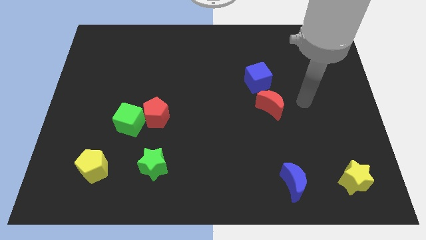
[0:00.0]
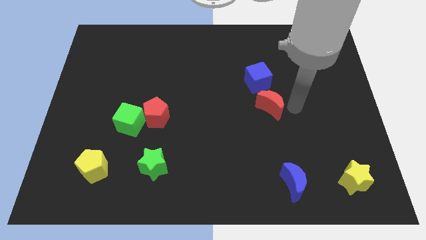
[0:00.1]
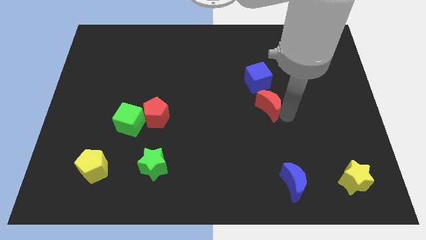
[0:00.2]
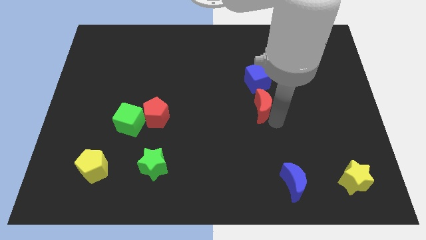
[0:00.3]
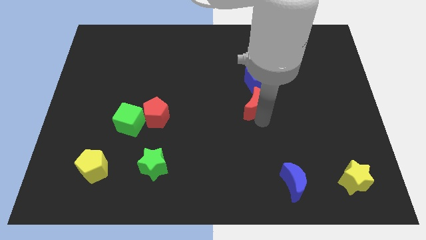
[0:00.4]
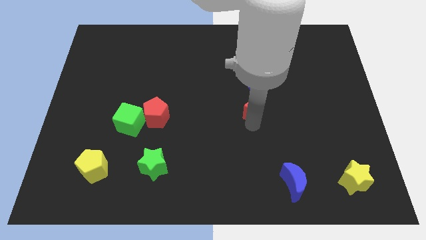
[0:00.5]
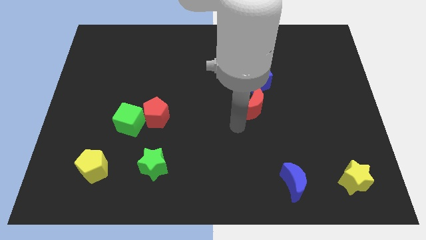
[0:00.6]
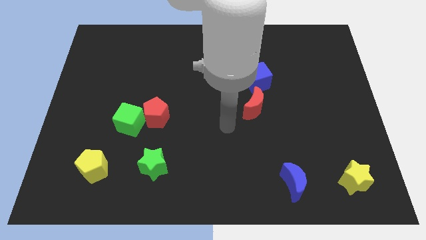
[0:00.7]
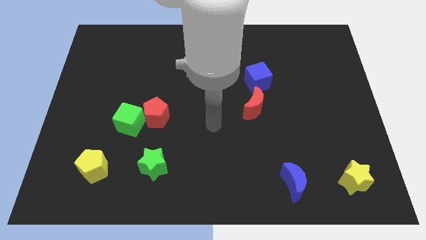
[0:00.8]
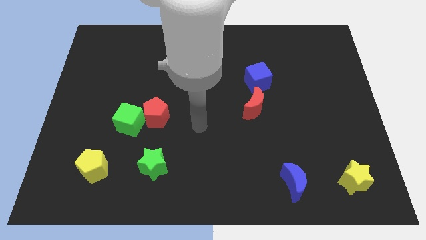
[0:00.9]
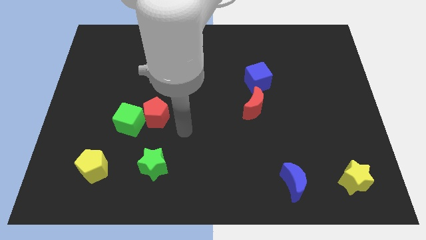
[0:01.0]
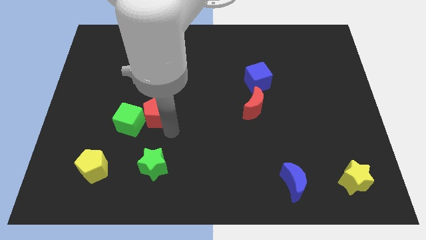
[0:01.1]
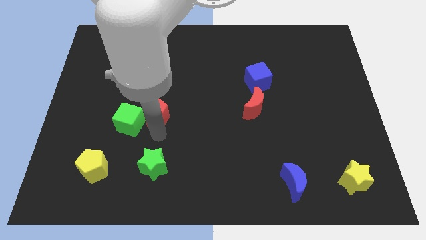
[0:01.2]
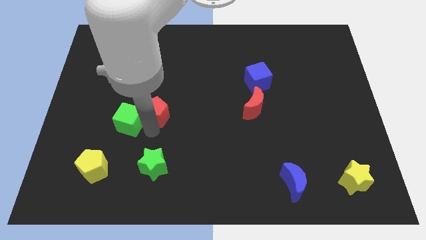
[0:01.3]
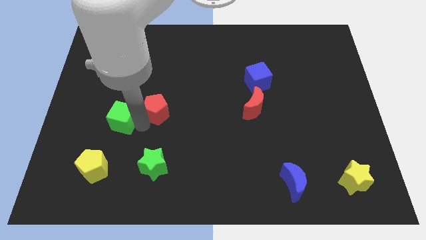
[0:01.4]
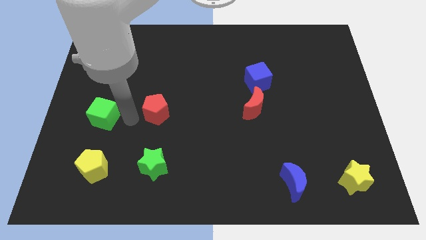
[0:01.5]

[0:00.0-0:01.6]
move the red pentagon away from the green cube

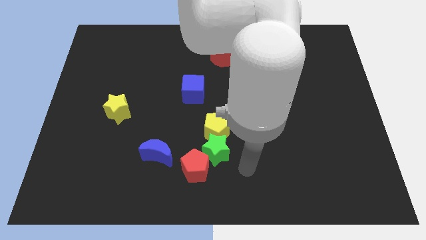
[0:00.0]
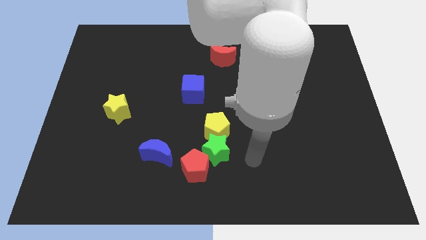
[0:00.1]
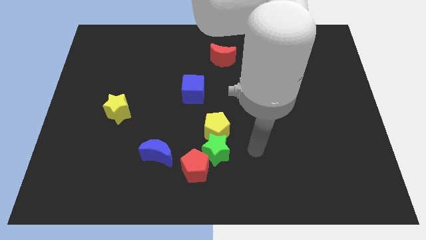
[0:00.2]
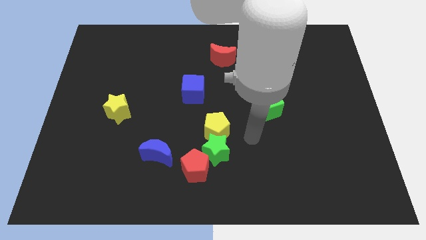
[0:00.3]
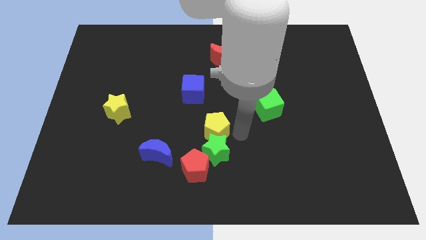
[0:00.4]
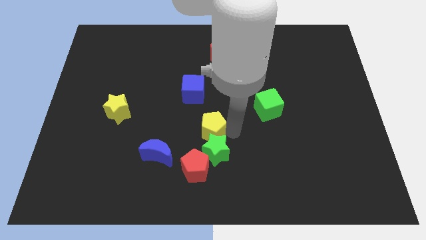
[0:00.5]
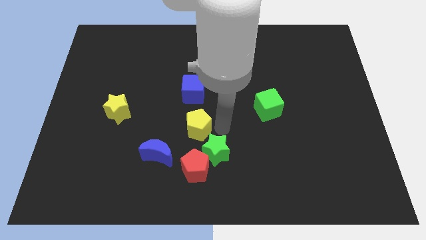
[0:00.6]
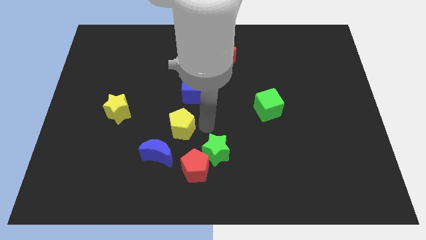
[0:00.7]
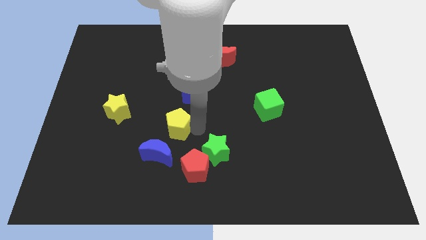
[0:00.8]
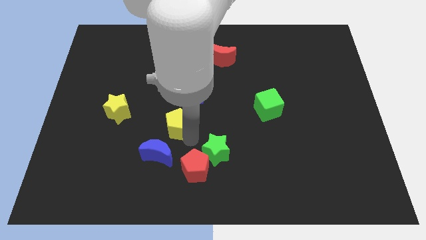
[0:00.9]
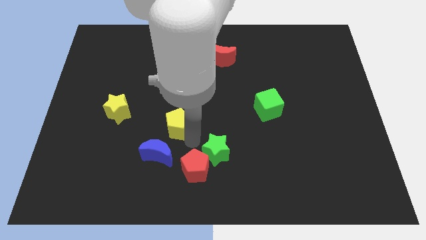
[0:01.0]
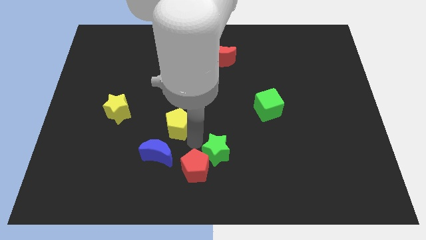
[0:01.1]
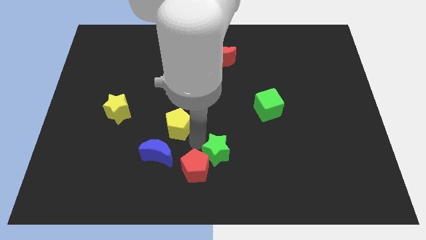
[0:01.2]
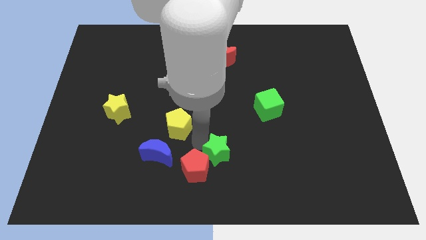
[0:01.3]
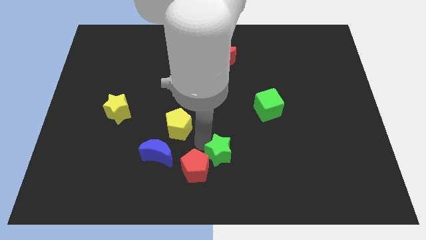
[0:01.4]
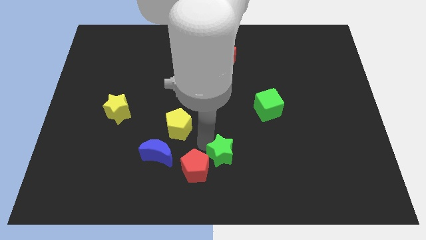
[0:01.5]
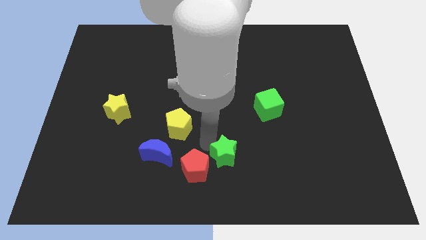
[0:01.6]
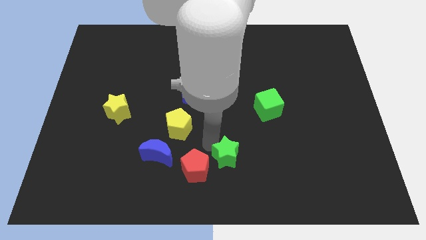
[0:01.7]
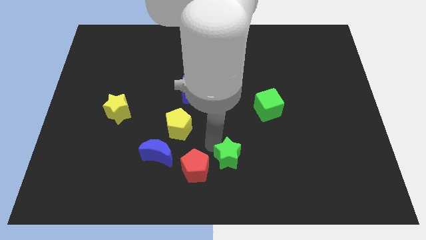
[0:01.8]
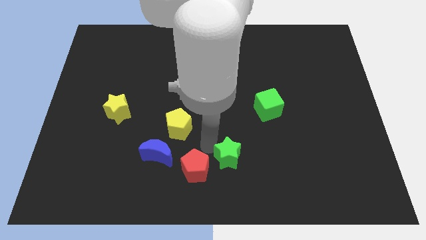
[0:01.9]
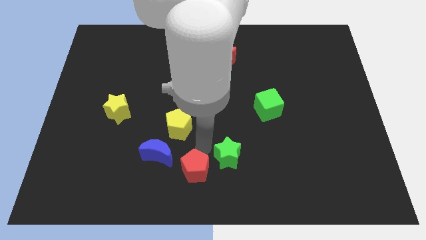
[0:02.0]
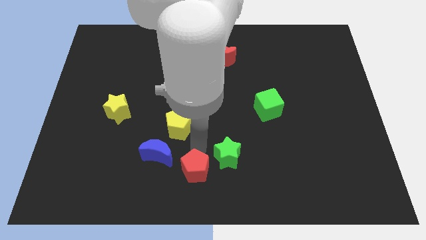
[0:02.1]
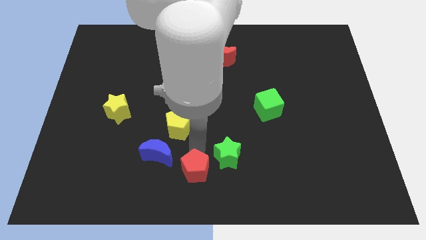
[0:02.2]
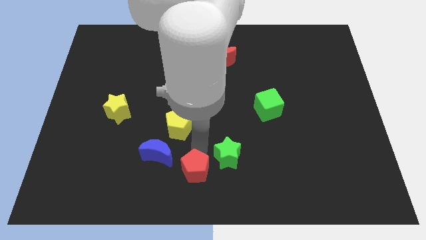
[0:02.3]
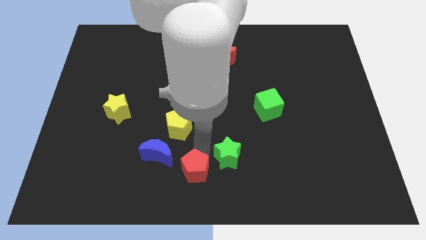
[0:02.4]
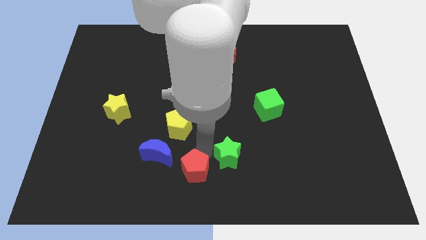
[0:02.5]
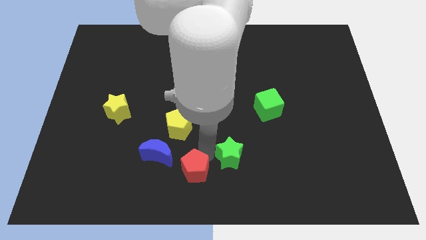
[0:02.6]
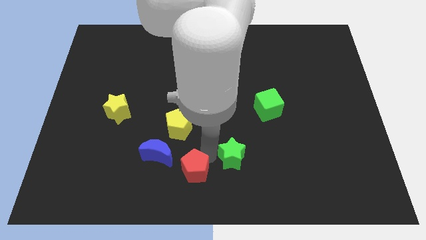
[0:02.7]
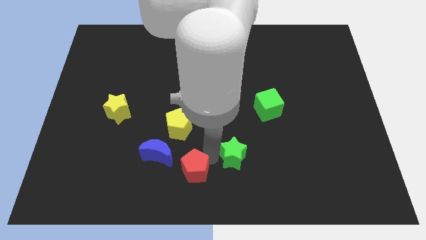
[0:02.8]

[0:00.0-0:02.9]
pull the green star apart from the red pentagon and yellow pentagon

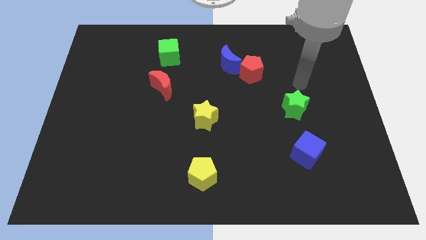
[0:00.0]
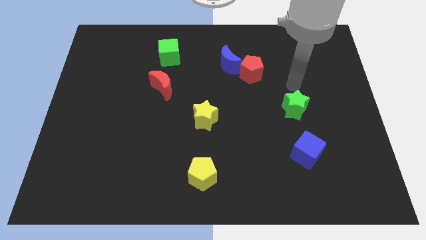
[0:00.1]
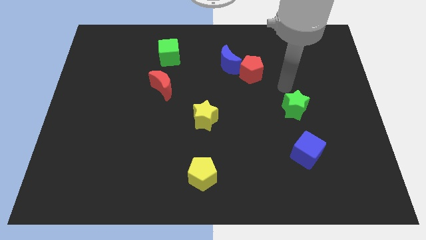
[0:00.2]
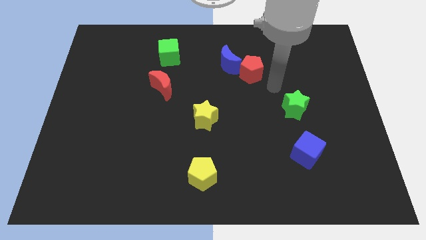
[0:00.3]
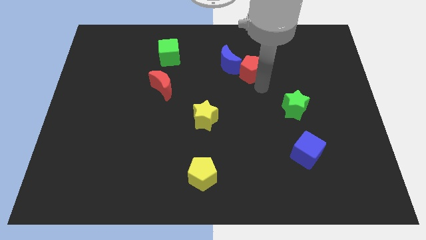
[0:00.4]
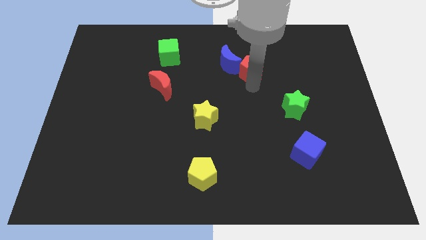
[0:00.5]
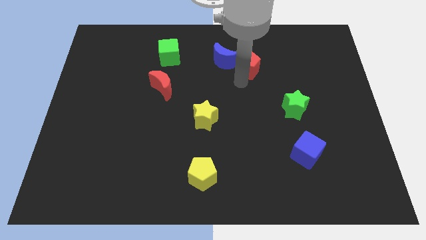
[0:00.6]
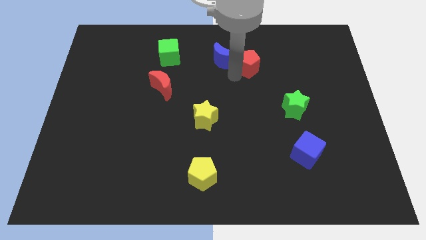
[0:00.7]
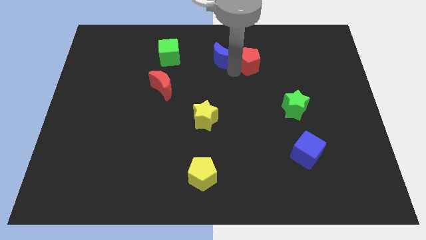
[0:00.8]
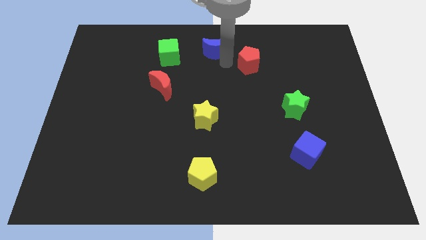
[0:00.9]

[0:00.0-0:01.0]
move the red pentagon away from the blue moon

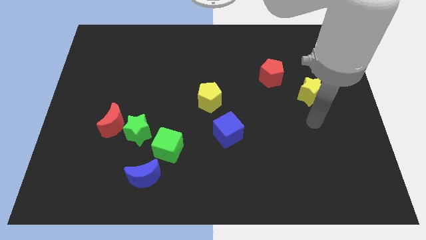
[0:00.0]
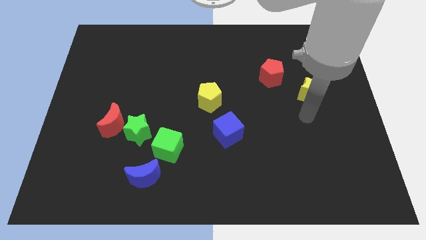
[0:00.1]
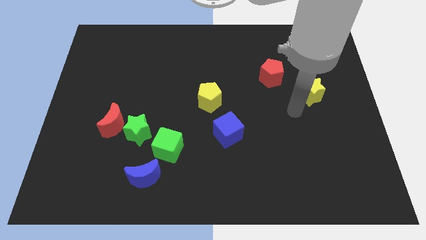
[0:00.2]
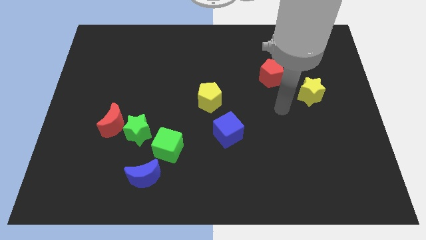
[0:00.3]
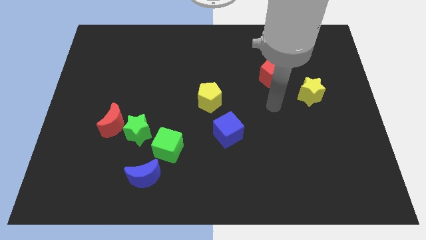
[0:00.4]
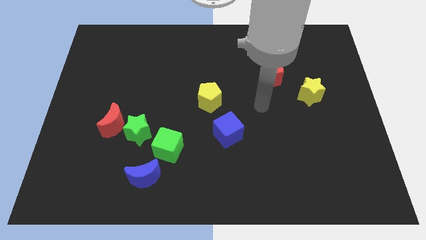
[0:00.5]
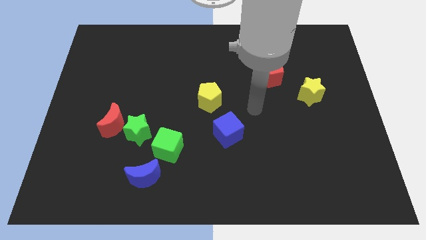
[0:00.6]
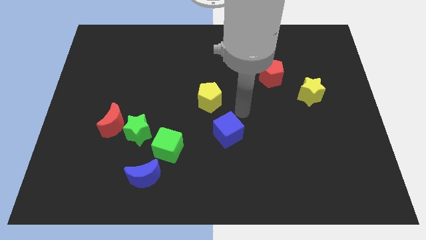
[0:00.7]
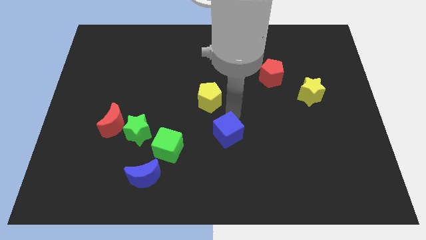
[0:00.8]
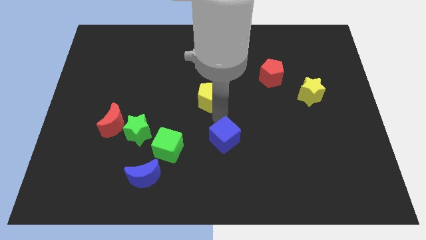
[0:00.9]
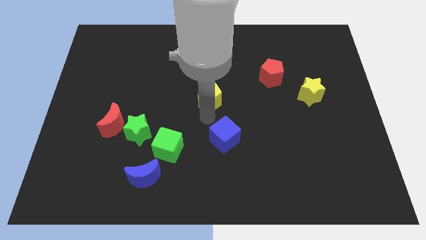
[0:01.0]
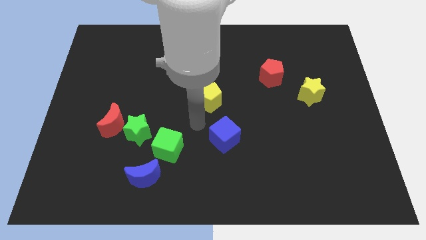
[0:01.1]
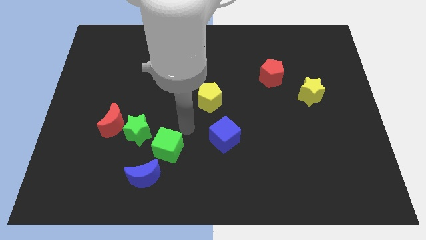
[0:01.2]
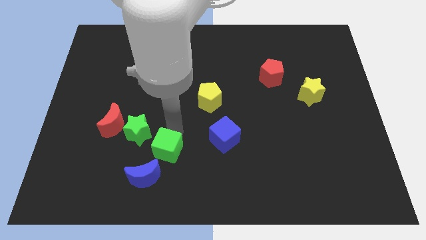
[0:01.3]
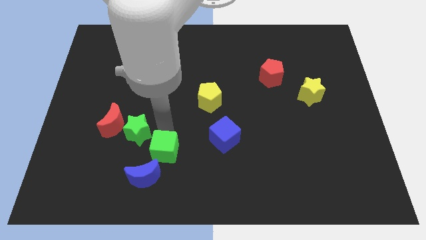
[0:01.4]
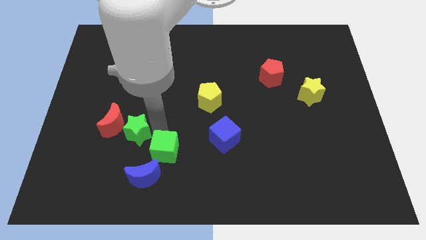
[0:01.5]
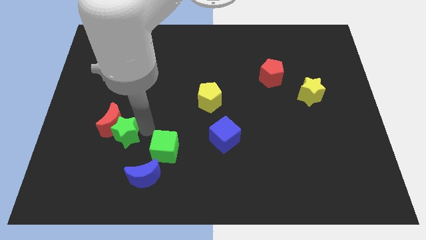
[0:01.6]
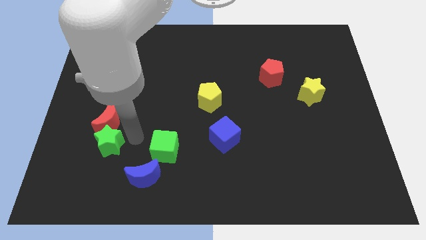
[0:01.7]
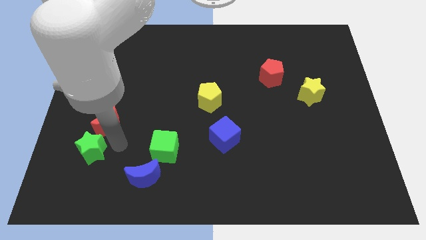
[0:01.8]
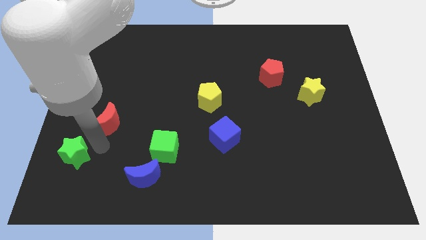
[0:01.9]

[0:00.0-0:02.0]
pull the red moon apart from the green star

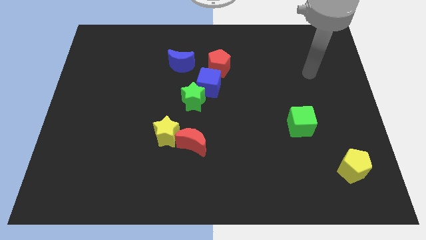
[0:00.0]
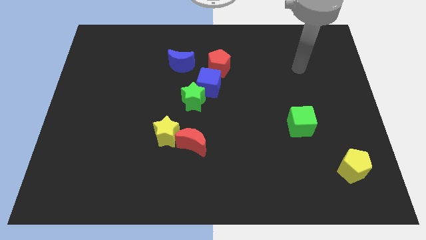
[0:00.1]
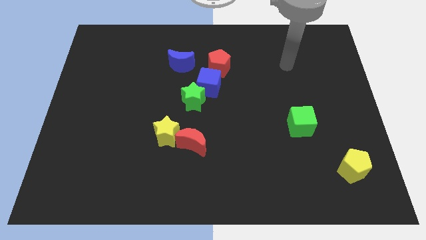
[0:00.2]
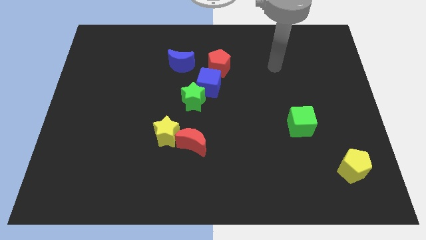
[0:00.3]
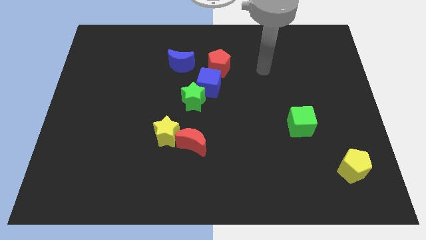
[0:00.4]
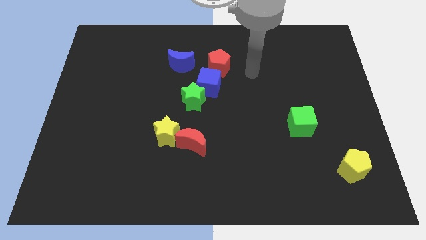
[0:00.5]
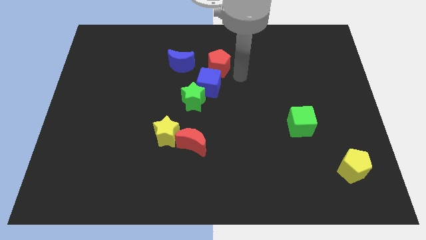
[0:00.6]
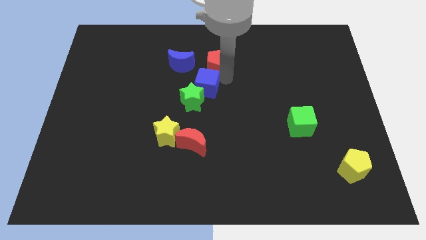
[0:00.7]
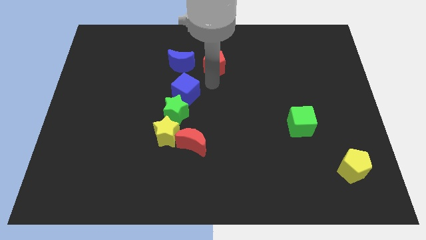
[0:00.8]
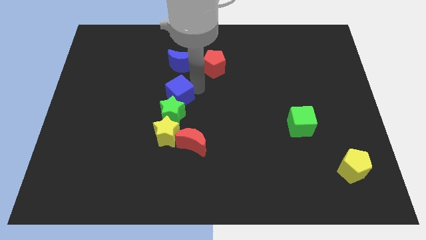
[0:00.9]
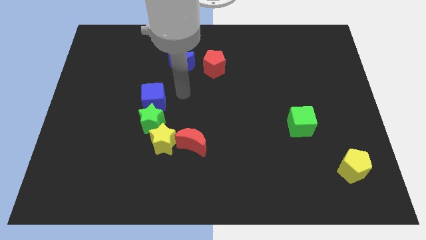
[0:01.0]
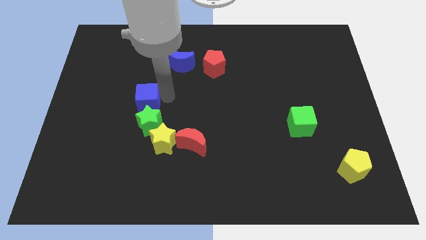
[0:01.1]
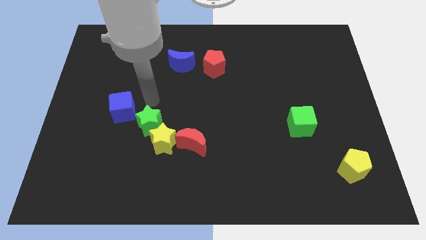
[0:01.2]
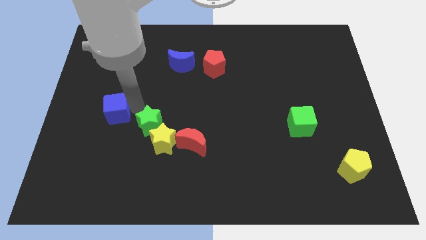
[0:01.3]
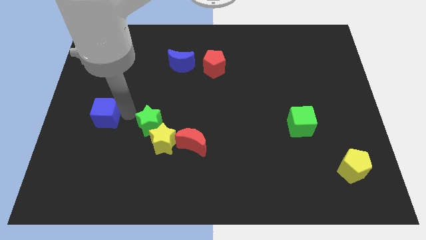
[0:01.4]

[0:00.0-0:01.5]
separate the green star from the blue cube

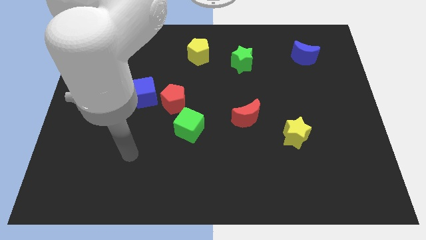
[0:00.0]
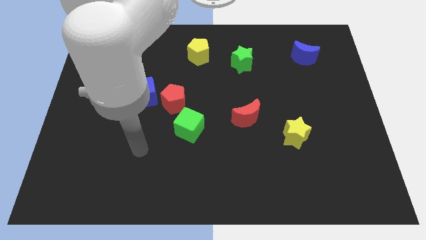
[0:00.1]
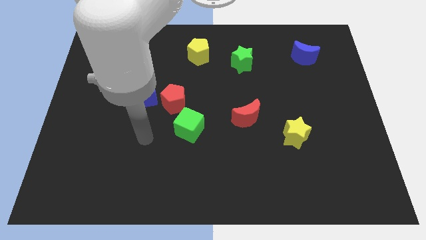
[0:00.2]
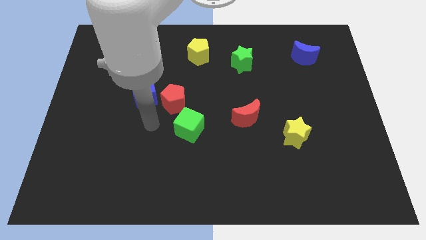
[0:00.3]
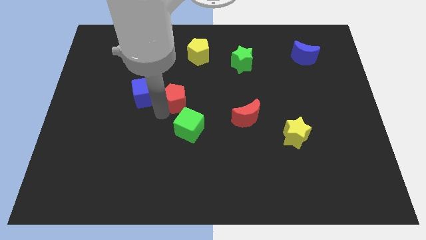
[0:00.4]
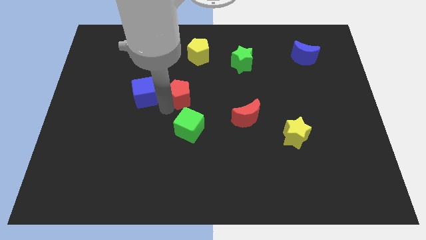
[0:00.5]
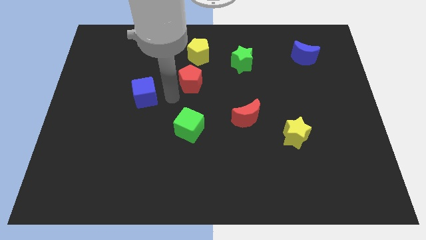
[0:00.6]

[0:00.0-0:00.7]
move the blue cube away from the red pentagon
